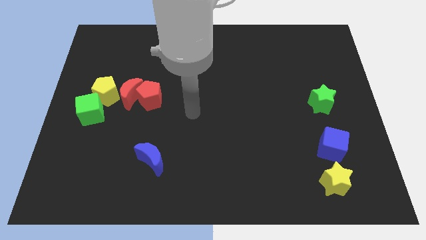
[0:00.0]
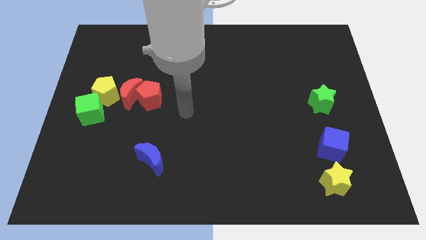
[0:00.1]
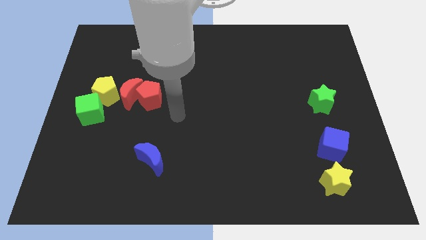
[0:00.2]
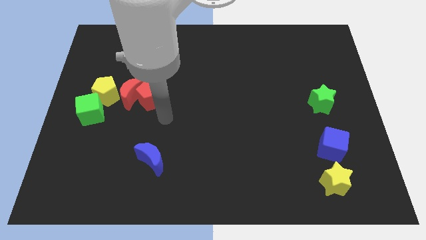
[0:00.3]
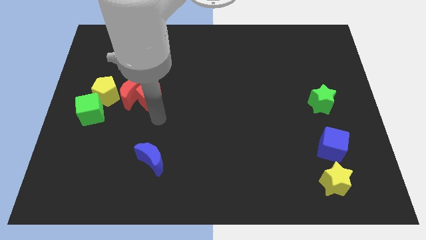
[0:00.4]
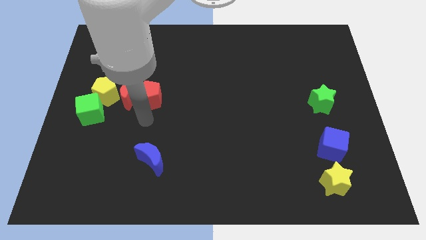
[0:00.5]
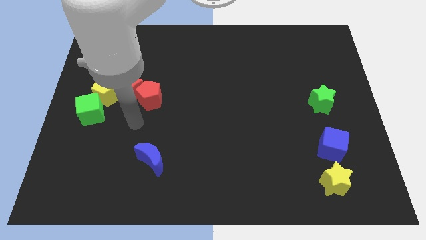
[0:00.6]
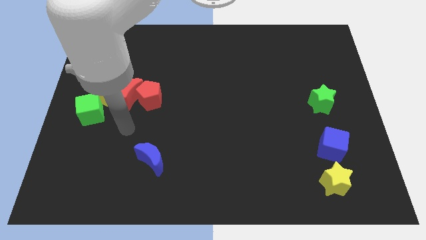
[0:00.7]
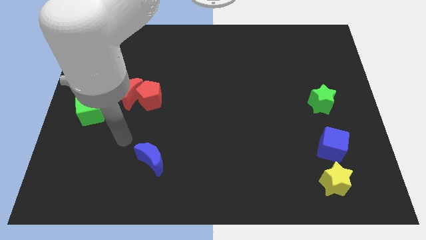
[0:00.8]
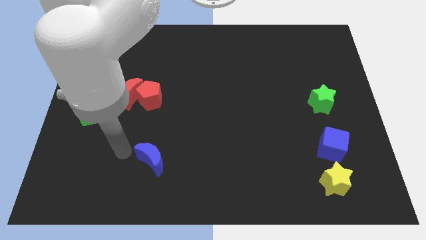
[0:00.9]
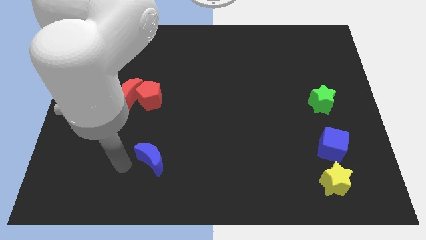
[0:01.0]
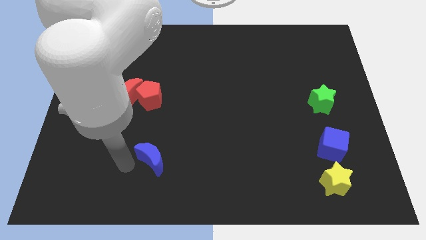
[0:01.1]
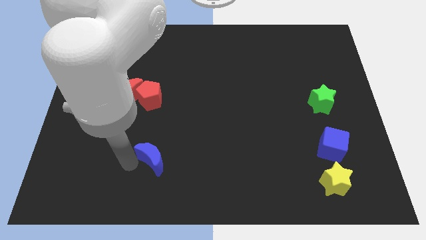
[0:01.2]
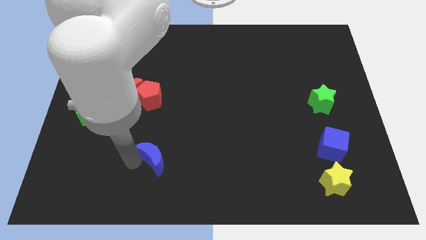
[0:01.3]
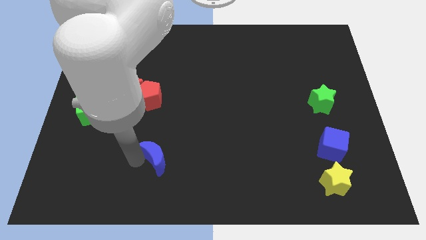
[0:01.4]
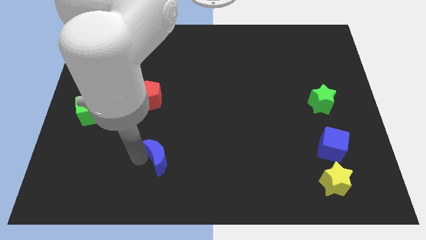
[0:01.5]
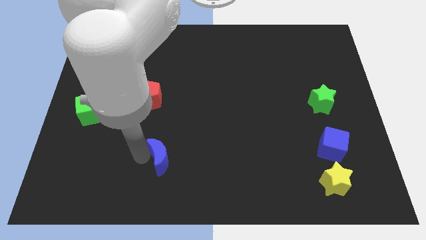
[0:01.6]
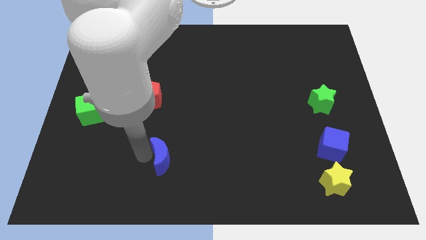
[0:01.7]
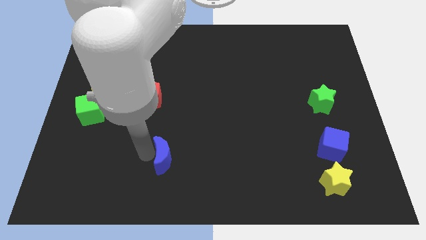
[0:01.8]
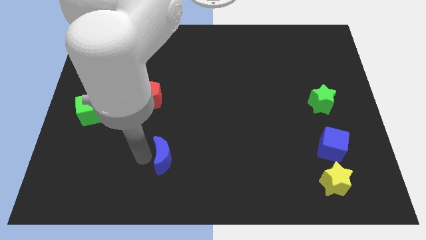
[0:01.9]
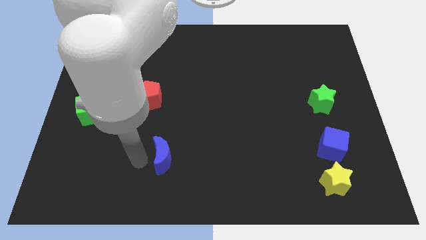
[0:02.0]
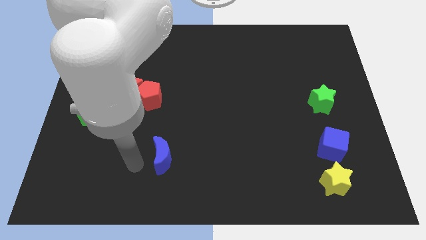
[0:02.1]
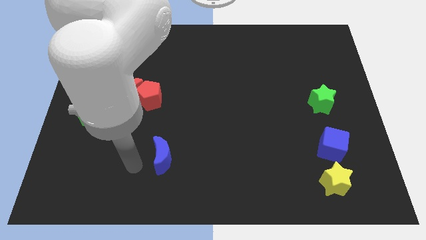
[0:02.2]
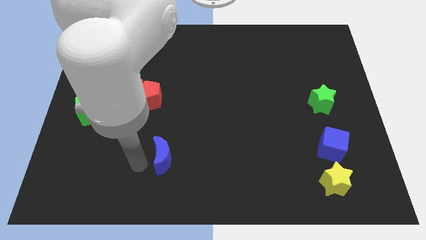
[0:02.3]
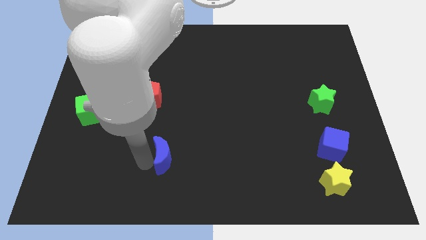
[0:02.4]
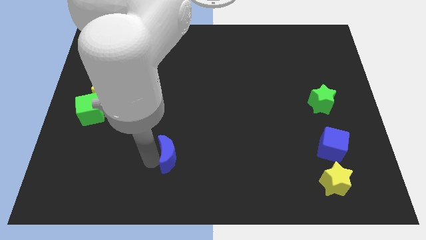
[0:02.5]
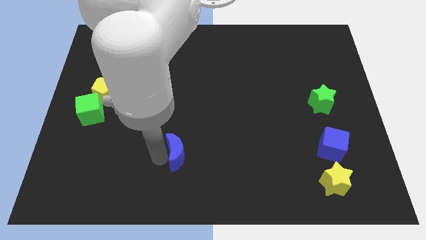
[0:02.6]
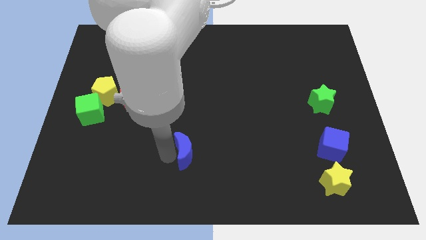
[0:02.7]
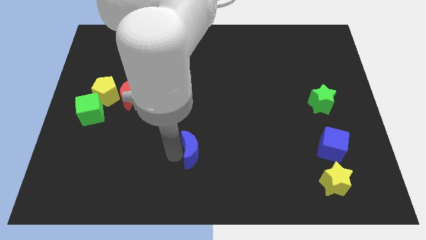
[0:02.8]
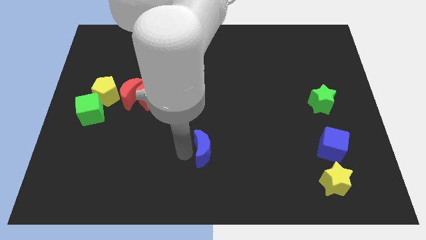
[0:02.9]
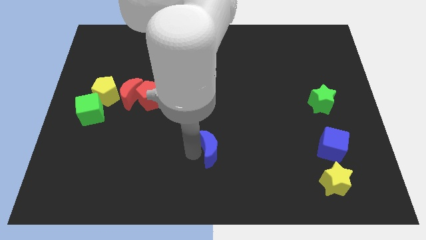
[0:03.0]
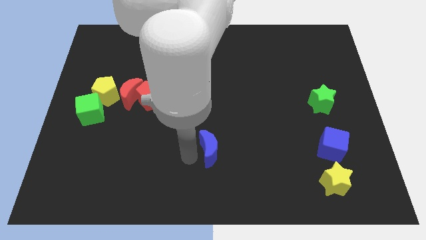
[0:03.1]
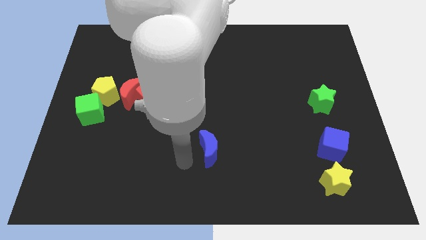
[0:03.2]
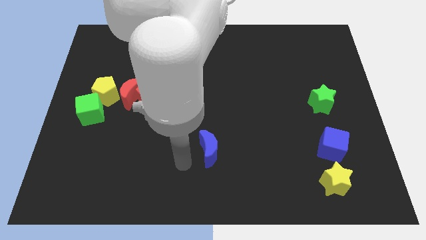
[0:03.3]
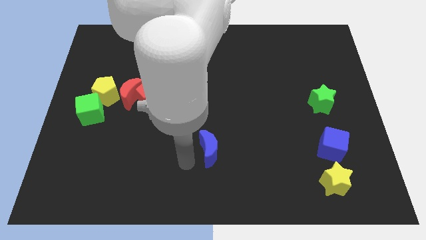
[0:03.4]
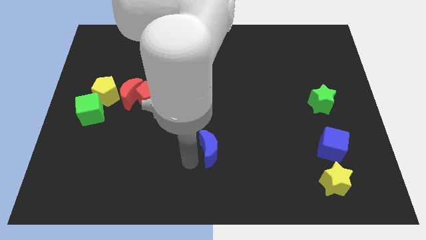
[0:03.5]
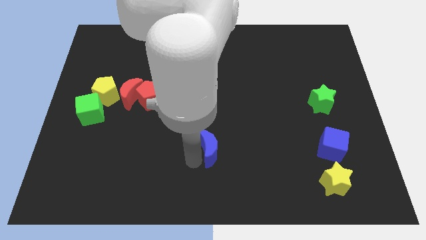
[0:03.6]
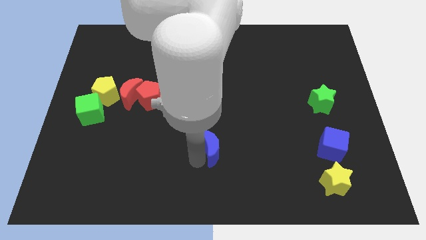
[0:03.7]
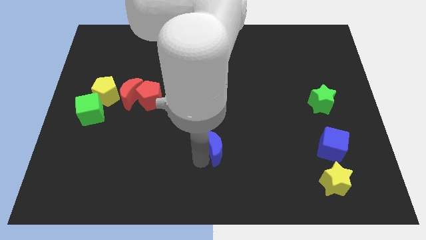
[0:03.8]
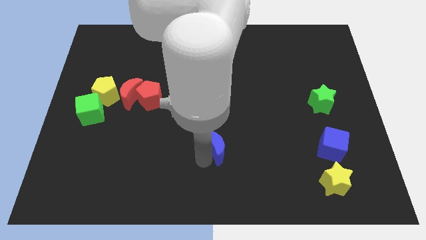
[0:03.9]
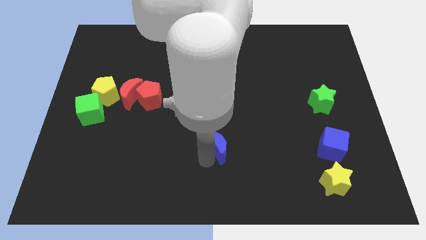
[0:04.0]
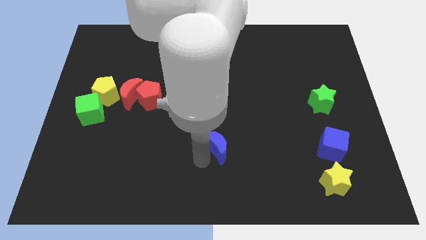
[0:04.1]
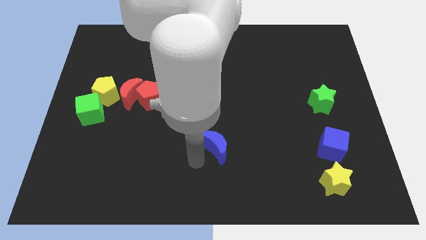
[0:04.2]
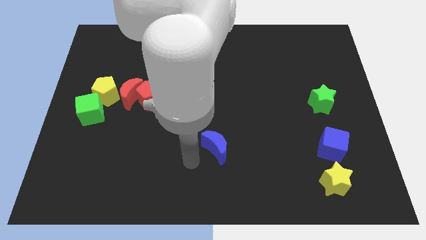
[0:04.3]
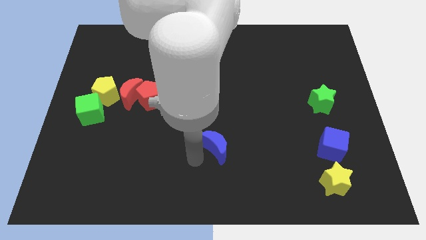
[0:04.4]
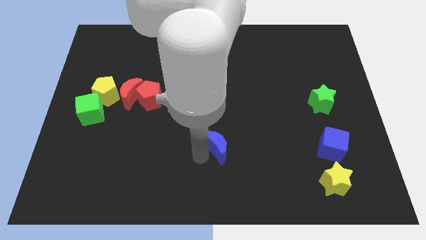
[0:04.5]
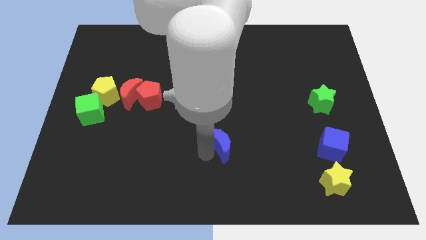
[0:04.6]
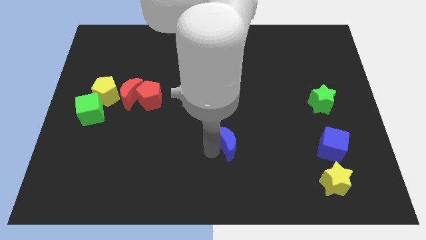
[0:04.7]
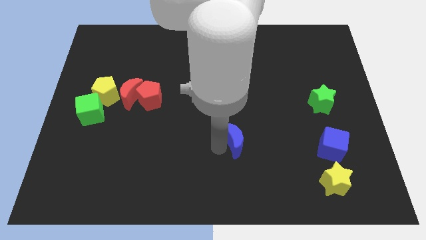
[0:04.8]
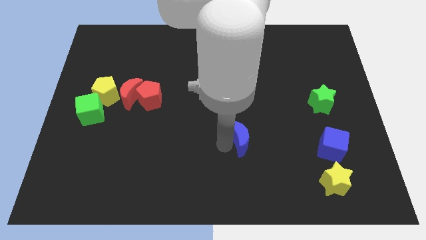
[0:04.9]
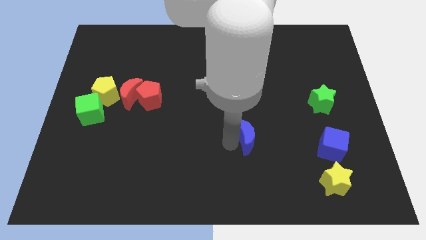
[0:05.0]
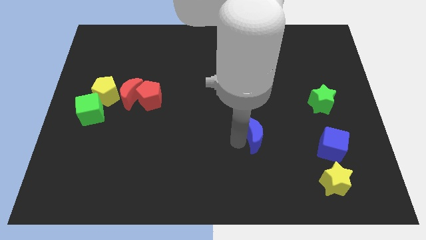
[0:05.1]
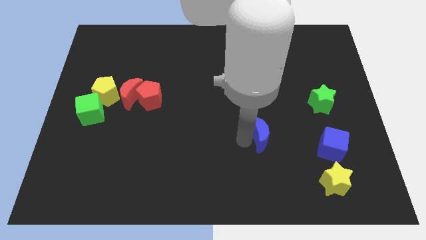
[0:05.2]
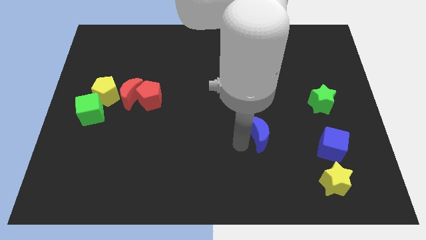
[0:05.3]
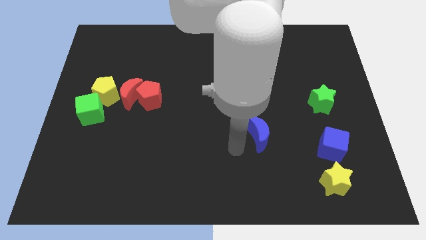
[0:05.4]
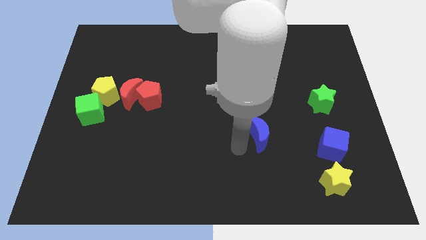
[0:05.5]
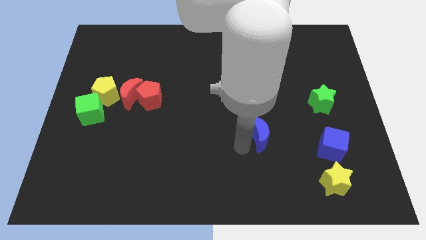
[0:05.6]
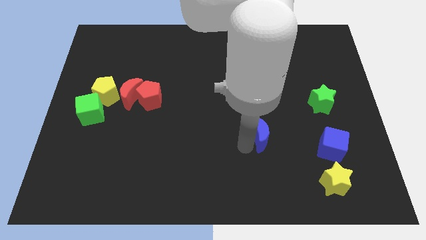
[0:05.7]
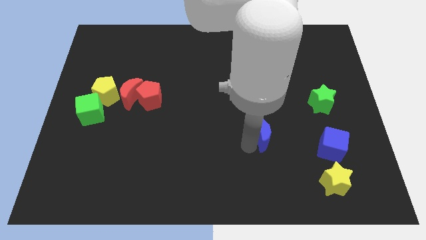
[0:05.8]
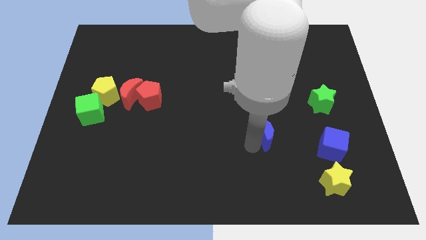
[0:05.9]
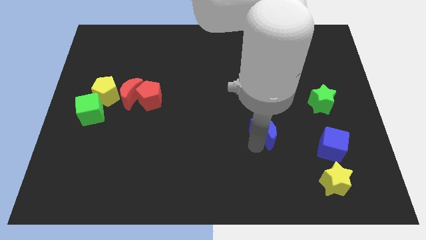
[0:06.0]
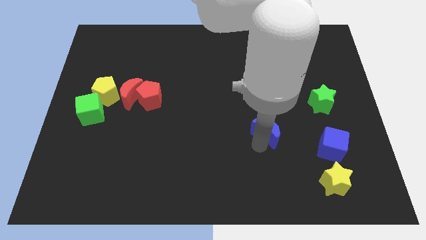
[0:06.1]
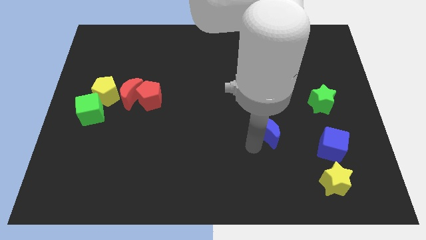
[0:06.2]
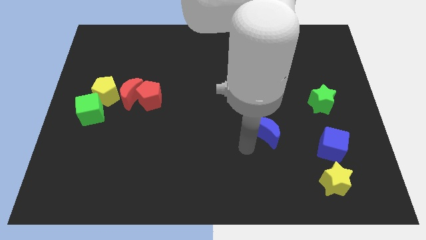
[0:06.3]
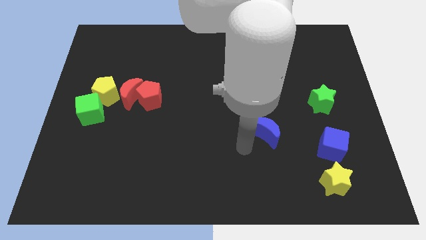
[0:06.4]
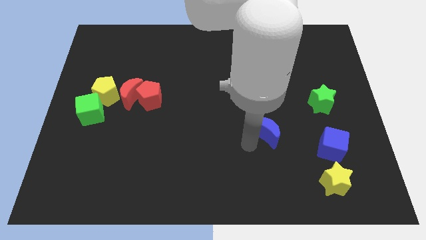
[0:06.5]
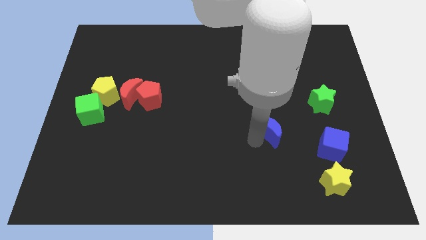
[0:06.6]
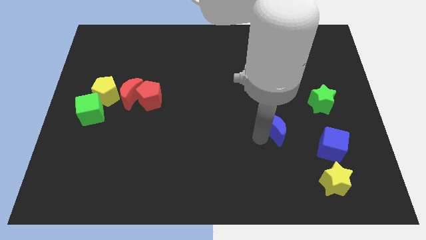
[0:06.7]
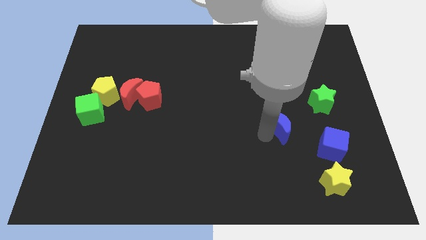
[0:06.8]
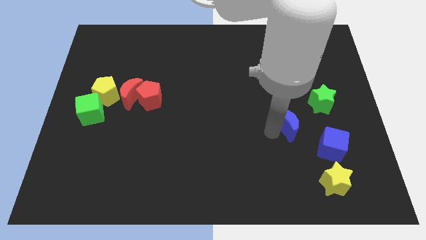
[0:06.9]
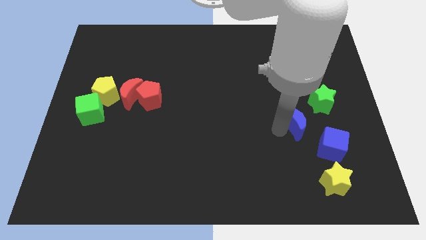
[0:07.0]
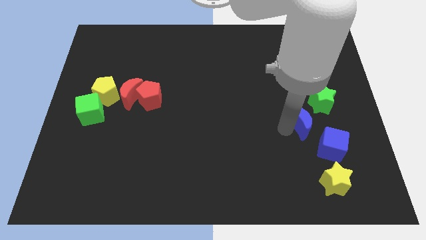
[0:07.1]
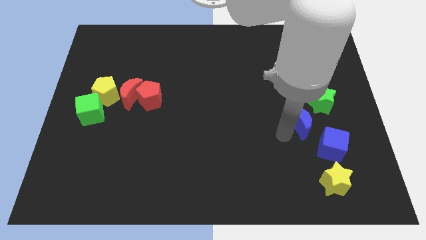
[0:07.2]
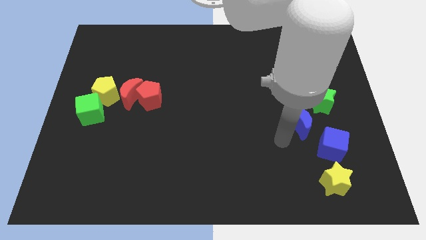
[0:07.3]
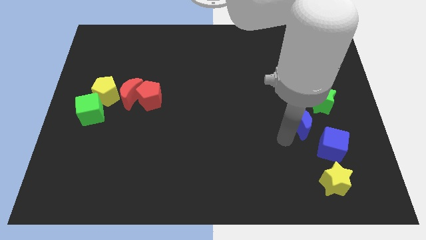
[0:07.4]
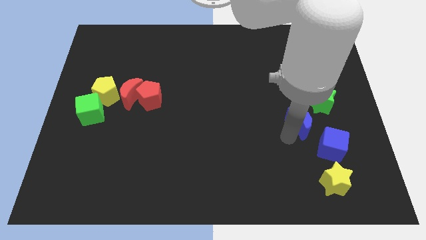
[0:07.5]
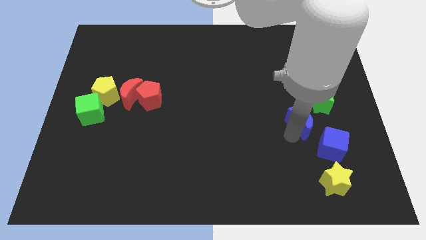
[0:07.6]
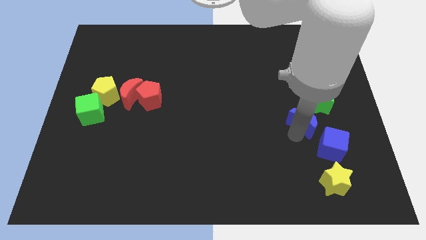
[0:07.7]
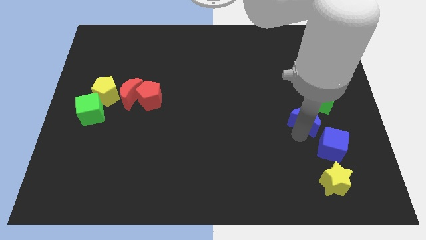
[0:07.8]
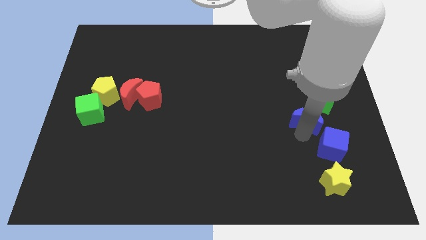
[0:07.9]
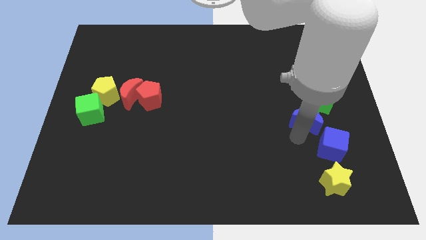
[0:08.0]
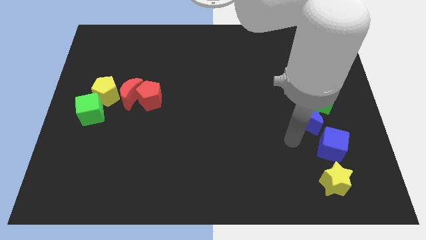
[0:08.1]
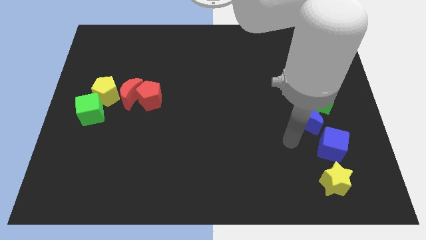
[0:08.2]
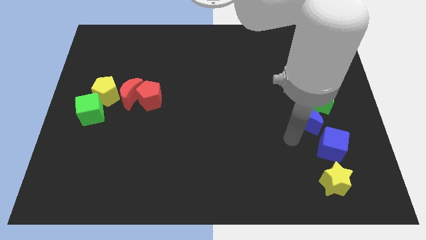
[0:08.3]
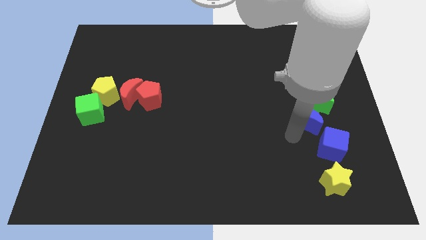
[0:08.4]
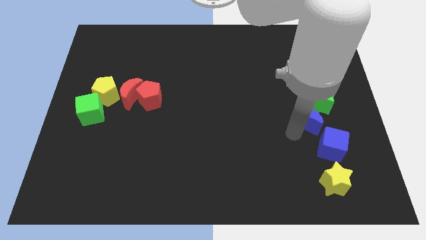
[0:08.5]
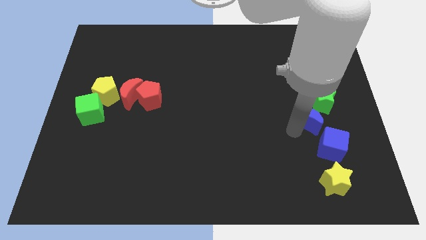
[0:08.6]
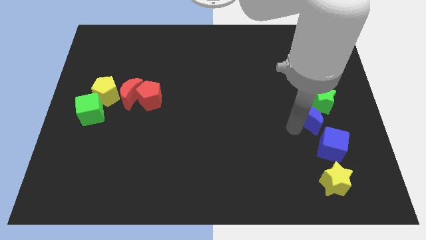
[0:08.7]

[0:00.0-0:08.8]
put the blue moon close to the green star
